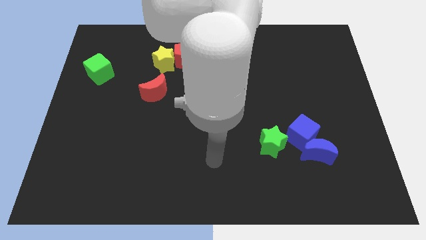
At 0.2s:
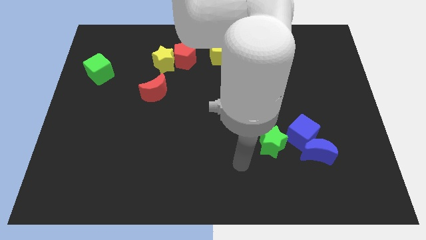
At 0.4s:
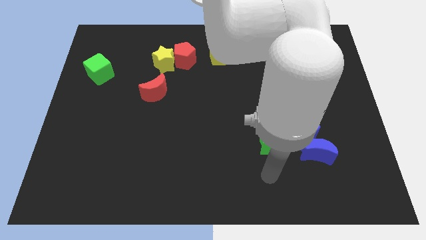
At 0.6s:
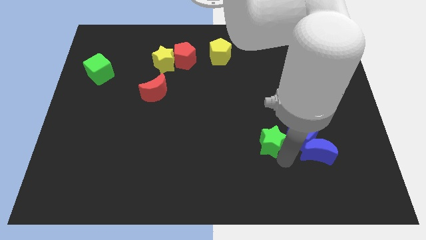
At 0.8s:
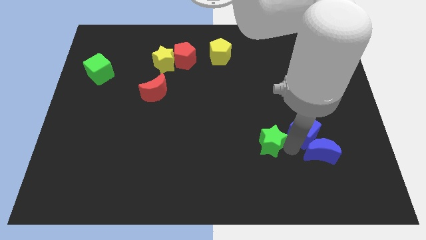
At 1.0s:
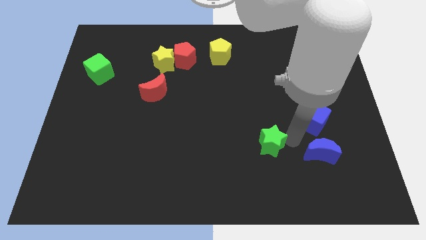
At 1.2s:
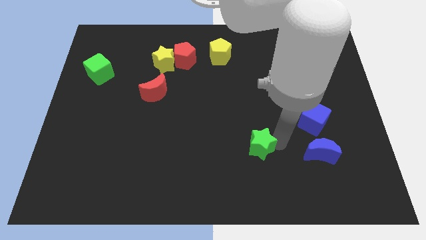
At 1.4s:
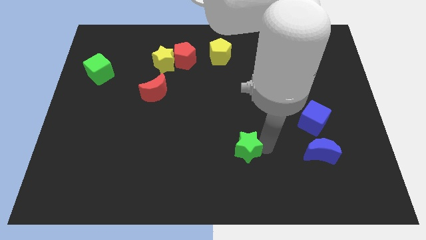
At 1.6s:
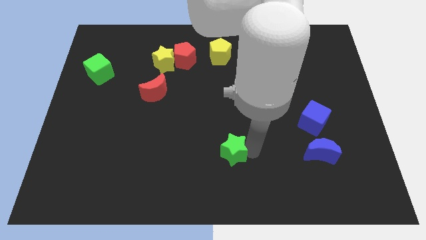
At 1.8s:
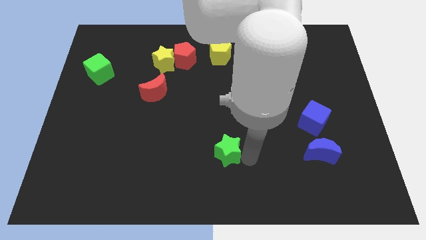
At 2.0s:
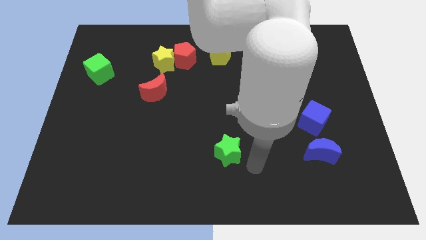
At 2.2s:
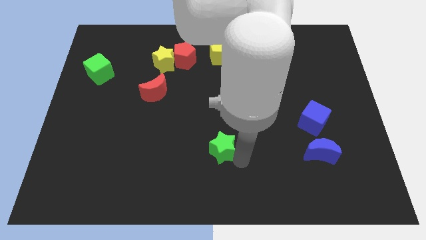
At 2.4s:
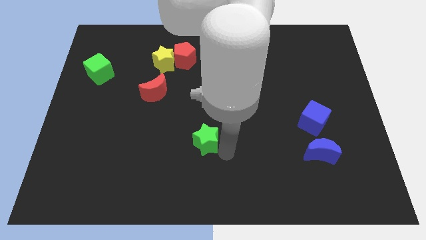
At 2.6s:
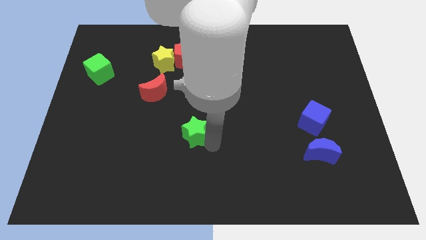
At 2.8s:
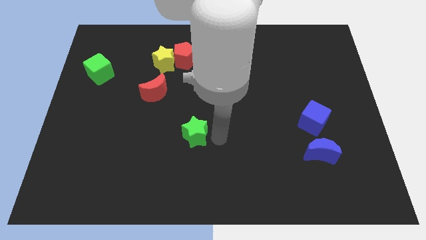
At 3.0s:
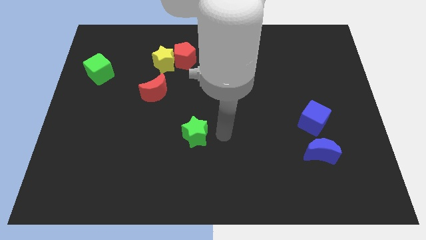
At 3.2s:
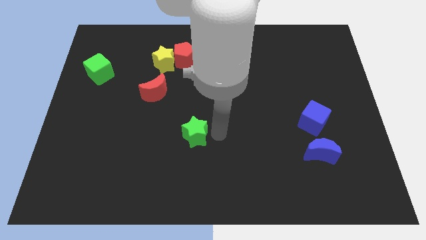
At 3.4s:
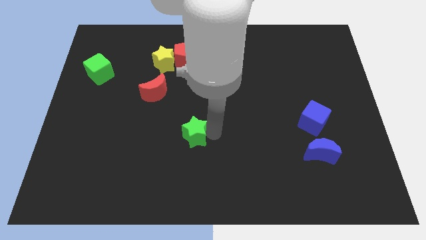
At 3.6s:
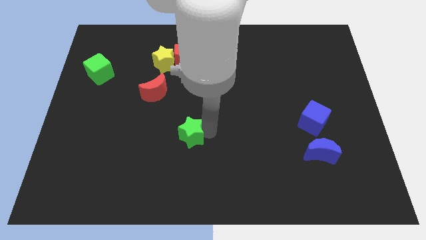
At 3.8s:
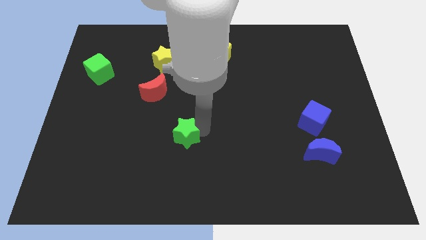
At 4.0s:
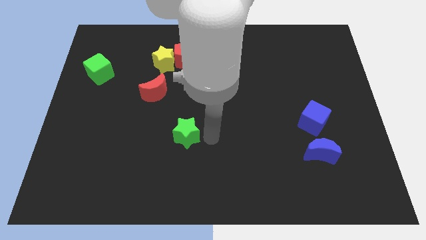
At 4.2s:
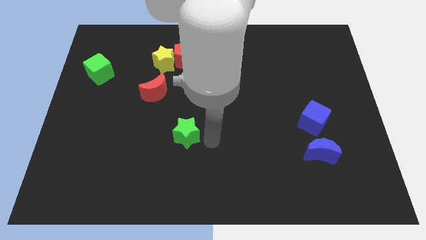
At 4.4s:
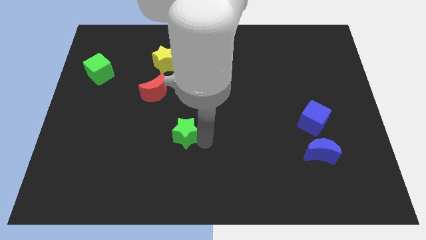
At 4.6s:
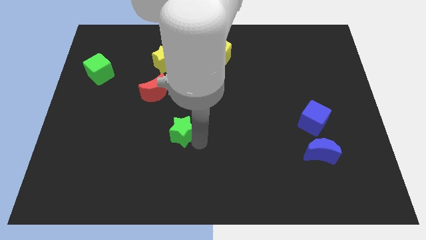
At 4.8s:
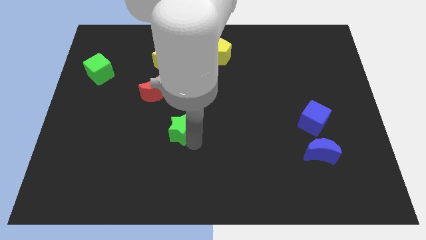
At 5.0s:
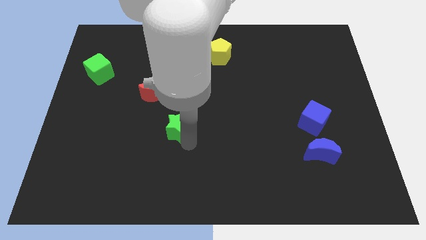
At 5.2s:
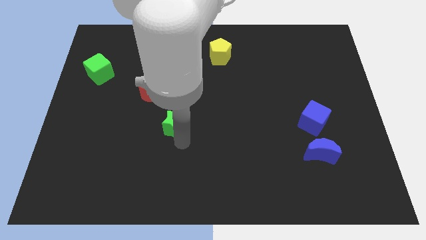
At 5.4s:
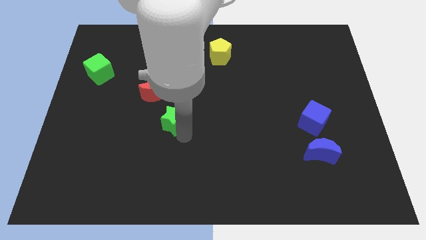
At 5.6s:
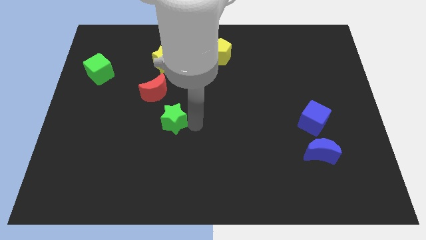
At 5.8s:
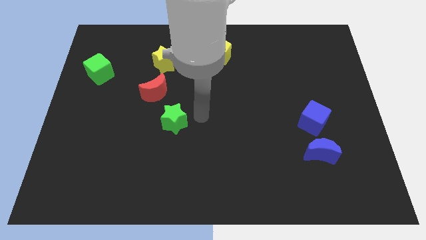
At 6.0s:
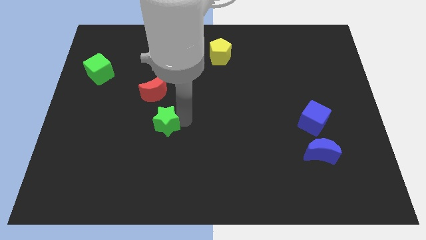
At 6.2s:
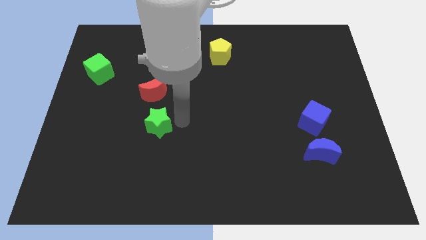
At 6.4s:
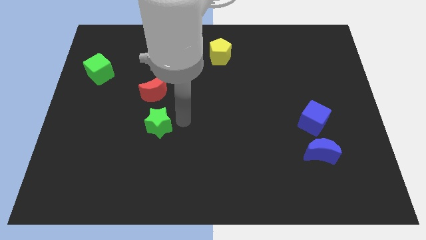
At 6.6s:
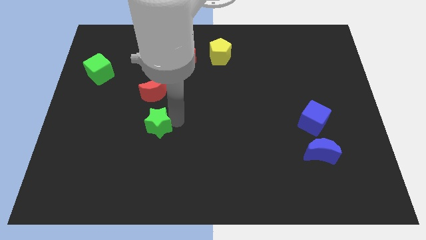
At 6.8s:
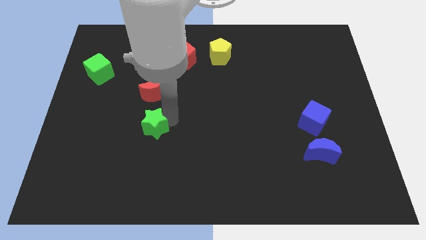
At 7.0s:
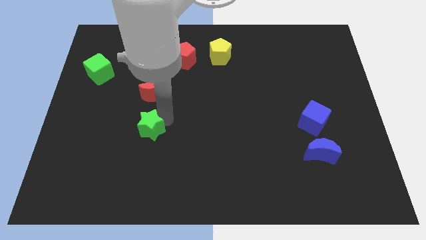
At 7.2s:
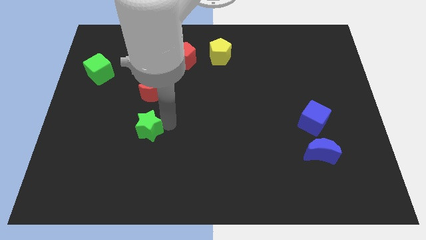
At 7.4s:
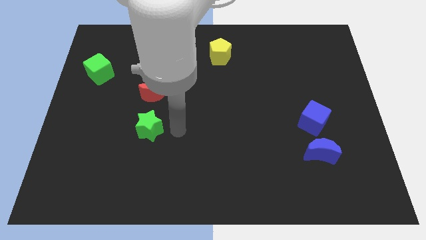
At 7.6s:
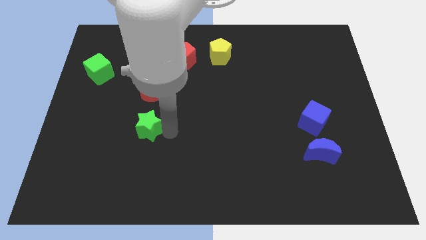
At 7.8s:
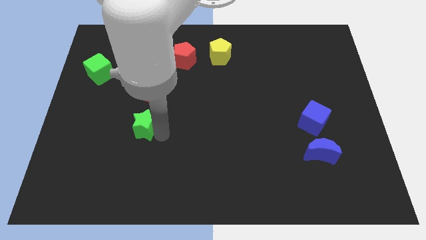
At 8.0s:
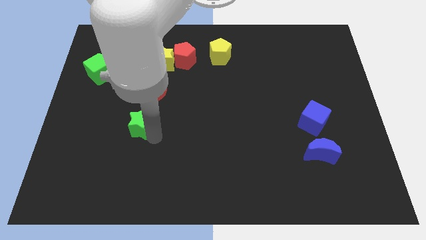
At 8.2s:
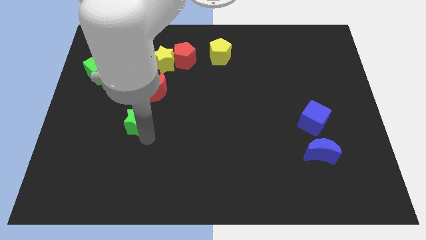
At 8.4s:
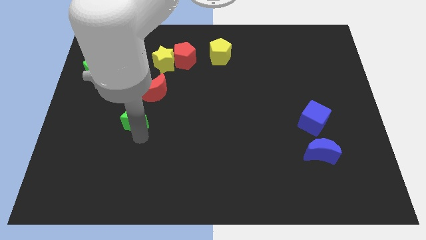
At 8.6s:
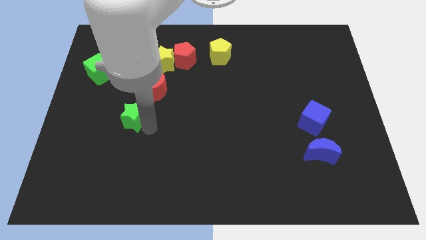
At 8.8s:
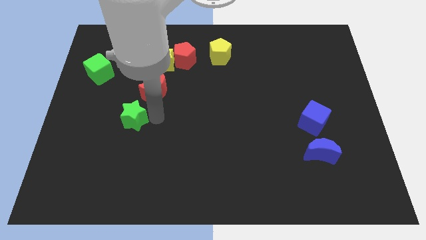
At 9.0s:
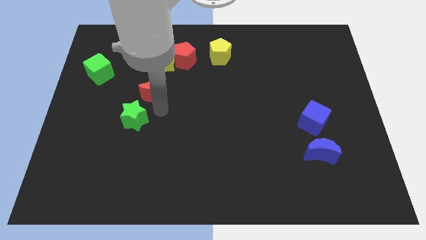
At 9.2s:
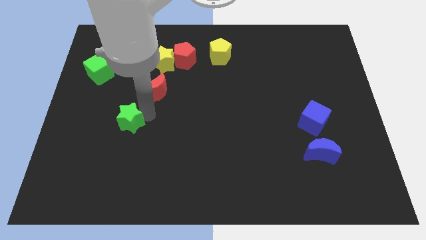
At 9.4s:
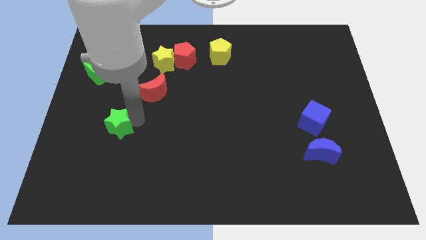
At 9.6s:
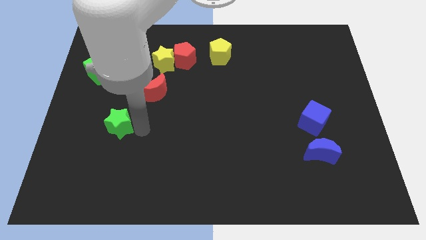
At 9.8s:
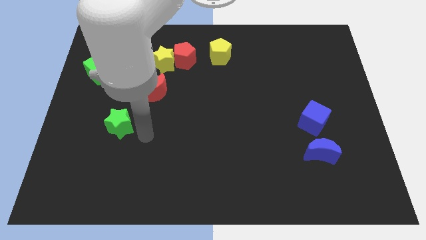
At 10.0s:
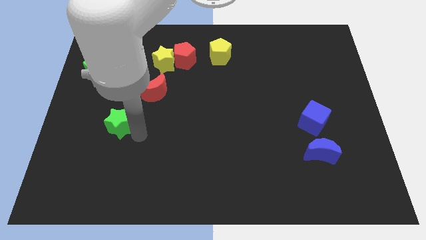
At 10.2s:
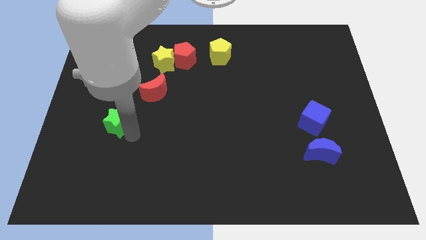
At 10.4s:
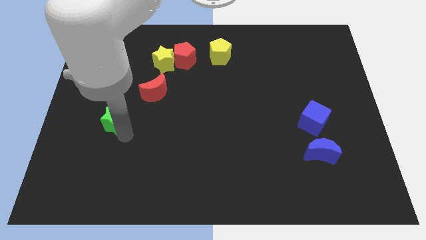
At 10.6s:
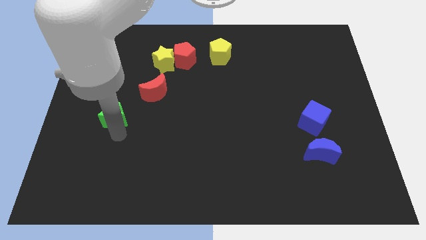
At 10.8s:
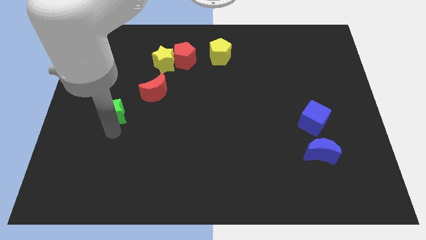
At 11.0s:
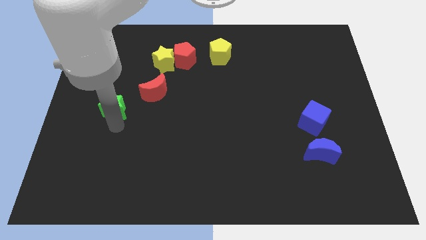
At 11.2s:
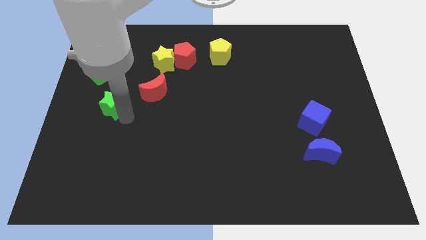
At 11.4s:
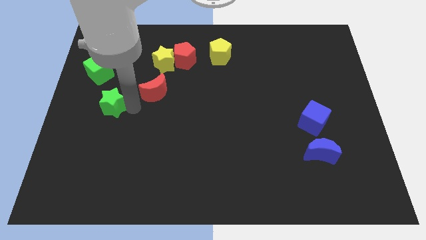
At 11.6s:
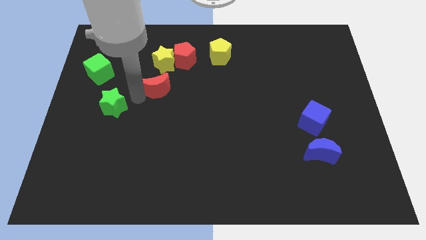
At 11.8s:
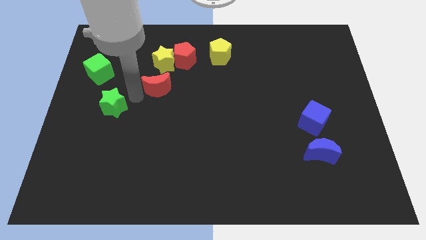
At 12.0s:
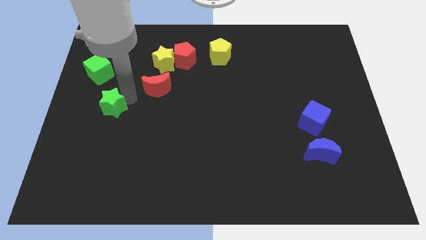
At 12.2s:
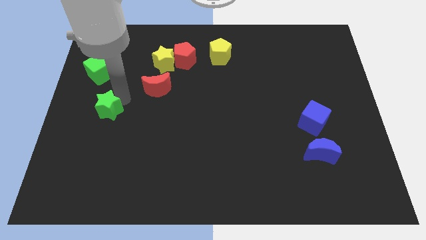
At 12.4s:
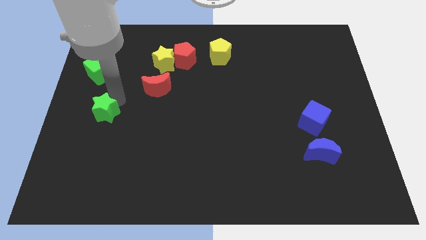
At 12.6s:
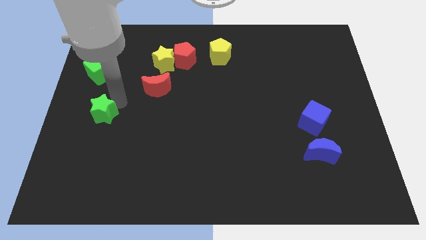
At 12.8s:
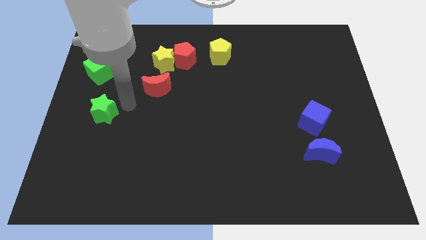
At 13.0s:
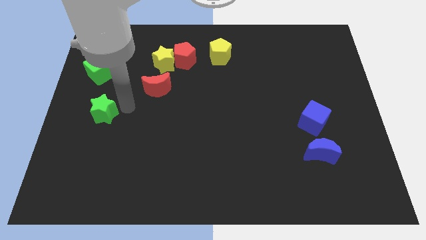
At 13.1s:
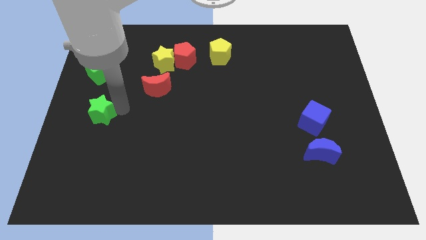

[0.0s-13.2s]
push the green star to the center left
